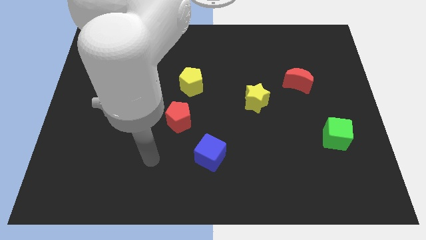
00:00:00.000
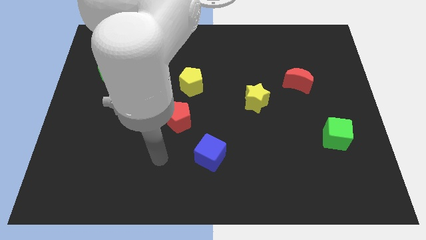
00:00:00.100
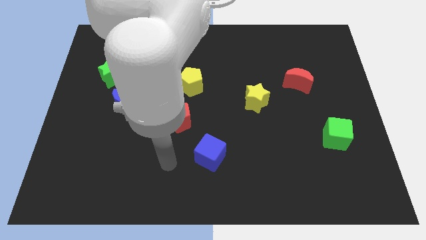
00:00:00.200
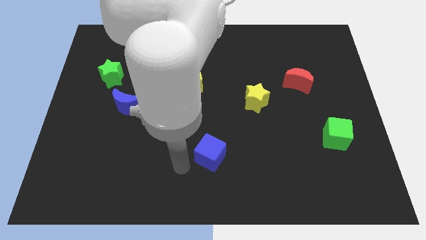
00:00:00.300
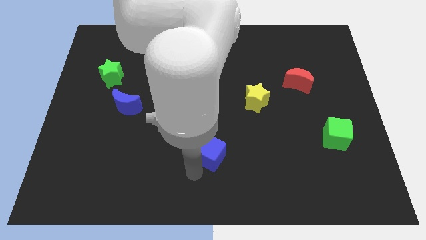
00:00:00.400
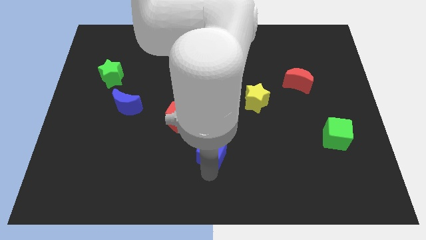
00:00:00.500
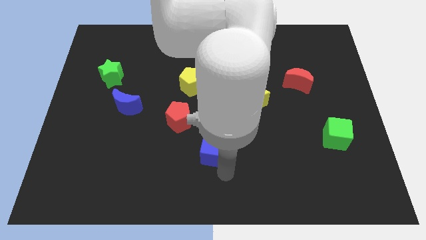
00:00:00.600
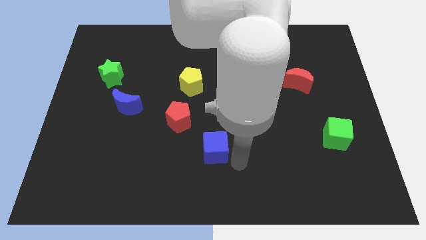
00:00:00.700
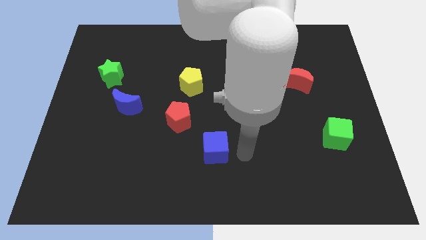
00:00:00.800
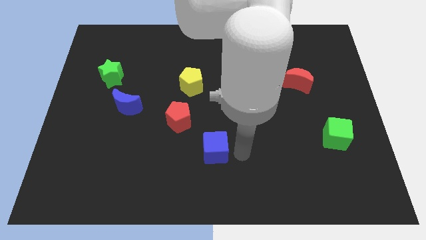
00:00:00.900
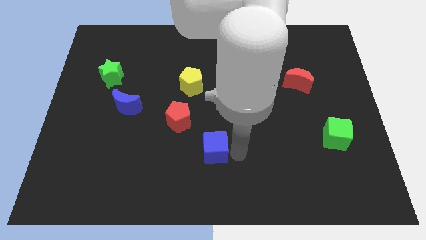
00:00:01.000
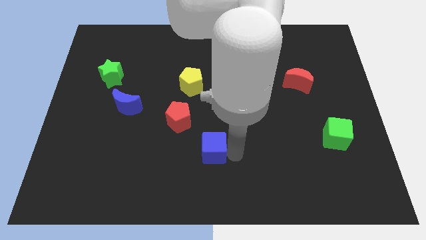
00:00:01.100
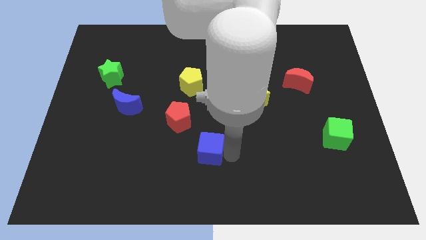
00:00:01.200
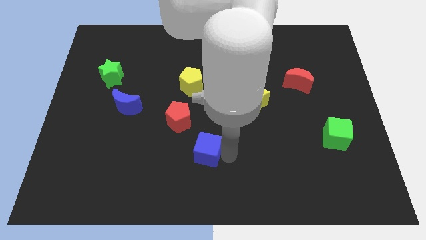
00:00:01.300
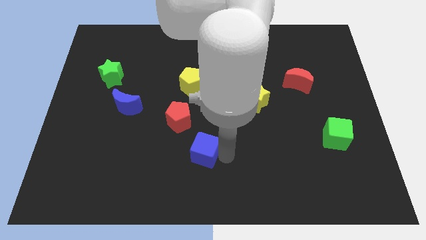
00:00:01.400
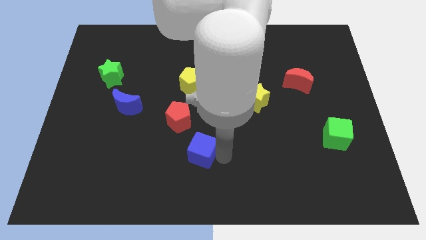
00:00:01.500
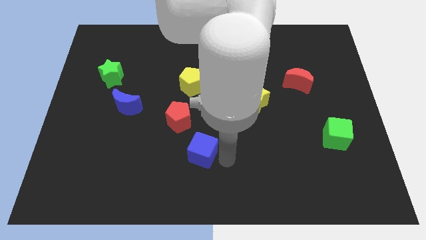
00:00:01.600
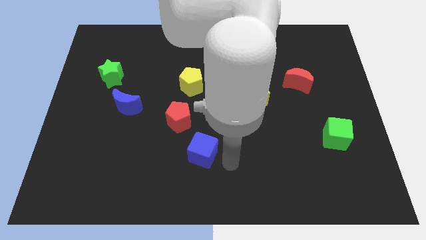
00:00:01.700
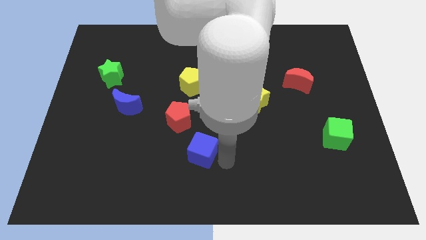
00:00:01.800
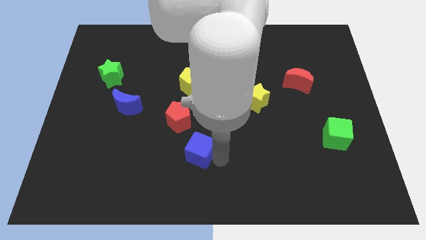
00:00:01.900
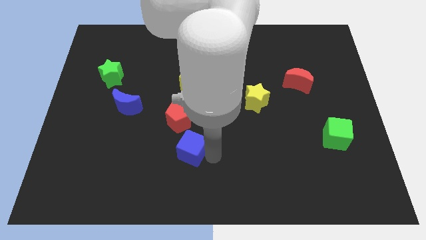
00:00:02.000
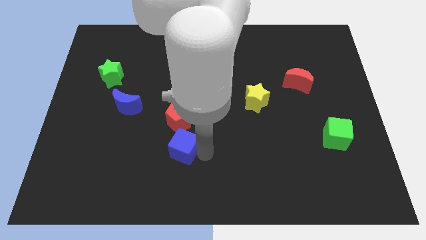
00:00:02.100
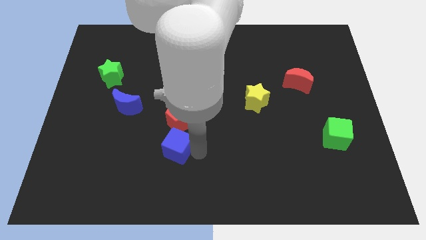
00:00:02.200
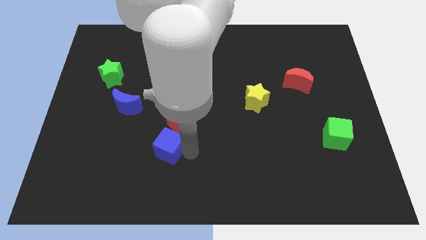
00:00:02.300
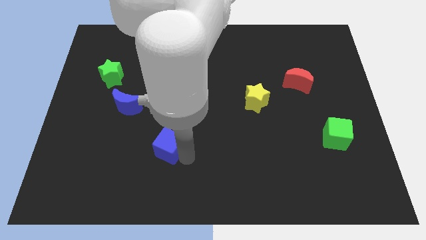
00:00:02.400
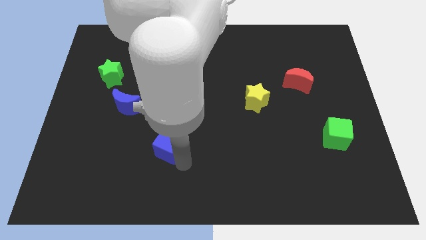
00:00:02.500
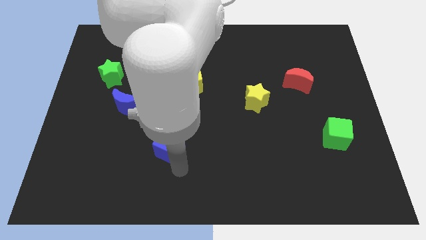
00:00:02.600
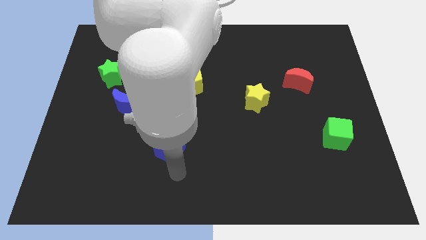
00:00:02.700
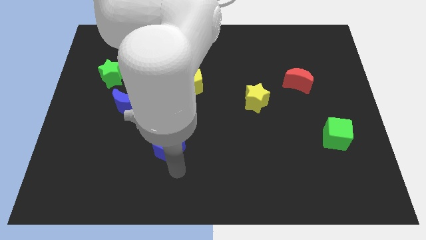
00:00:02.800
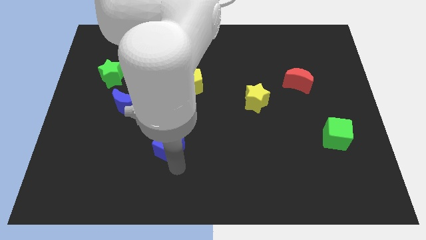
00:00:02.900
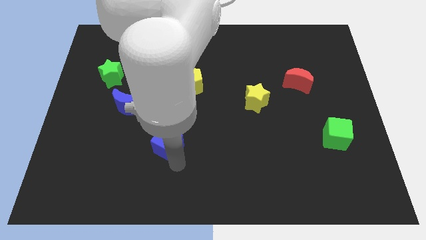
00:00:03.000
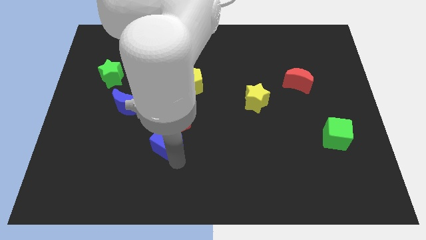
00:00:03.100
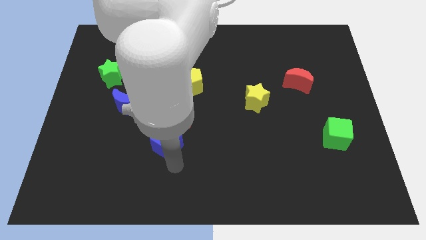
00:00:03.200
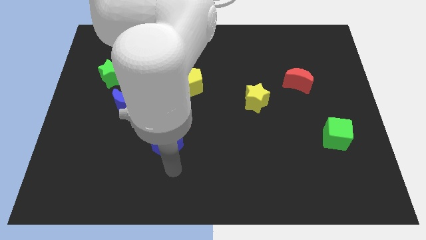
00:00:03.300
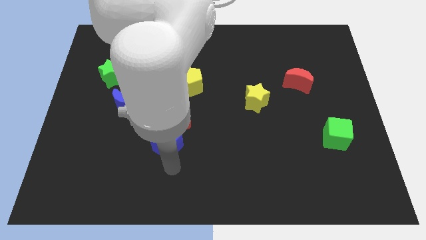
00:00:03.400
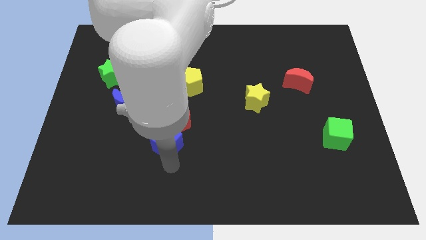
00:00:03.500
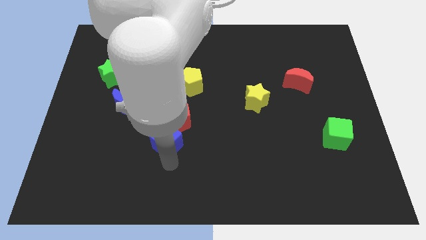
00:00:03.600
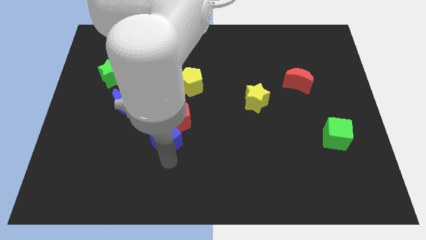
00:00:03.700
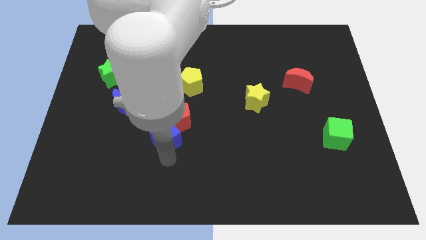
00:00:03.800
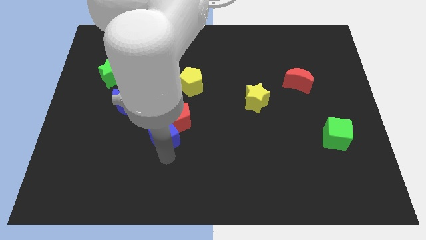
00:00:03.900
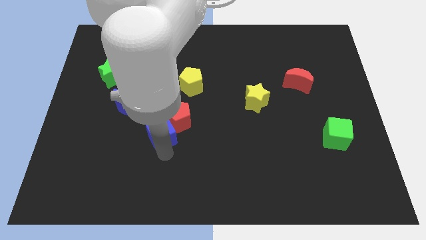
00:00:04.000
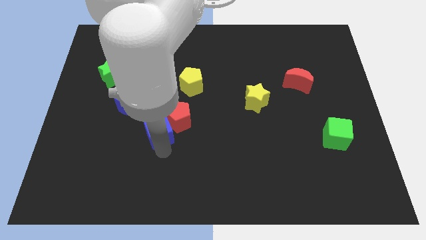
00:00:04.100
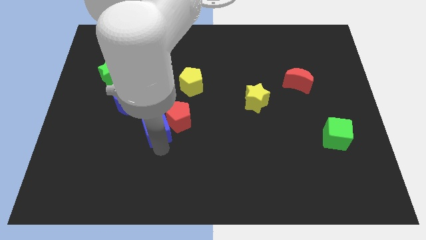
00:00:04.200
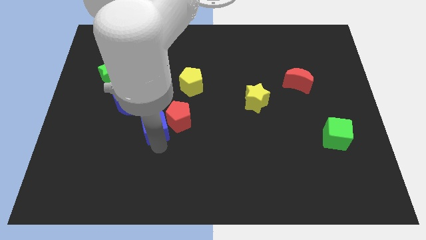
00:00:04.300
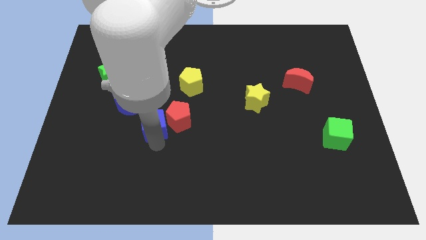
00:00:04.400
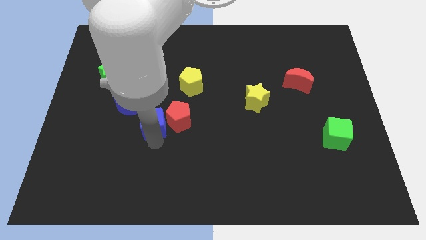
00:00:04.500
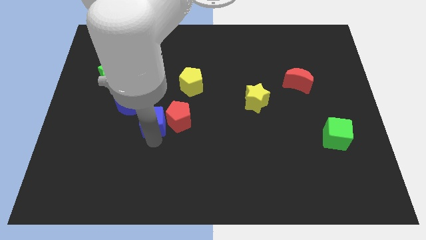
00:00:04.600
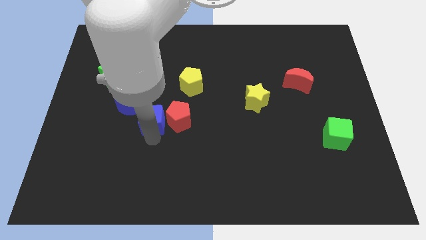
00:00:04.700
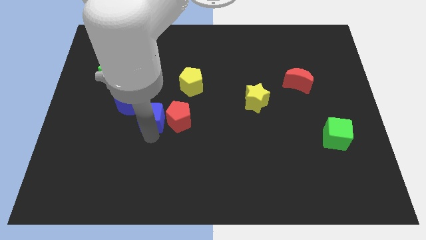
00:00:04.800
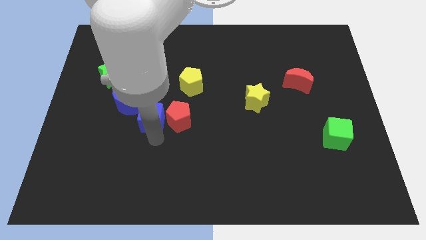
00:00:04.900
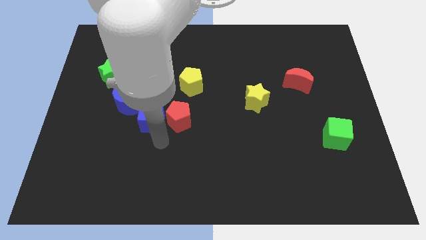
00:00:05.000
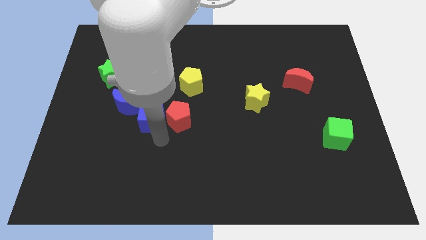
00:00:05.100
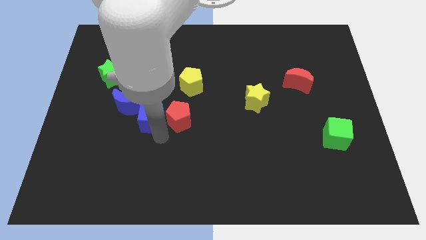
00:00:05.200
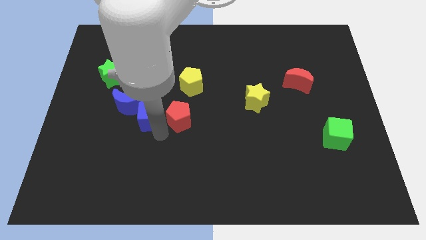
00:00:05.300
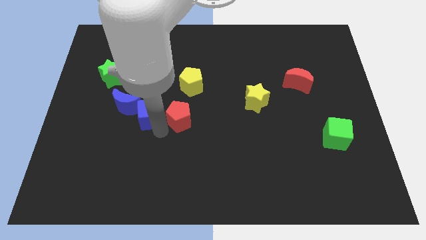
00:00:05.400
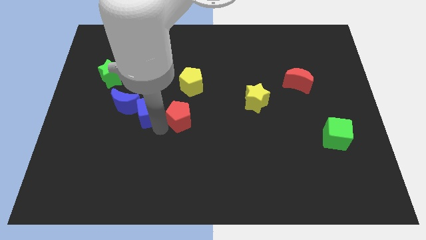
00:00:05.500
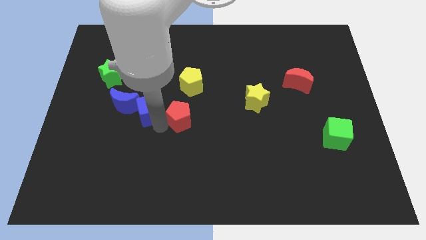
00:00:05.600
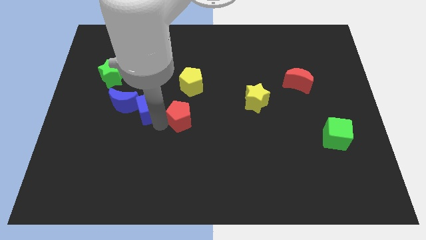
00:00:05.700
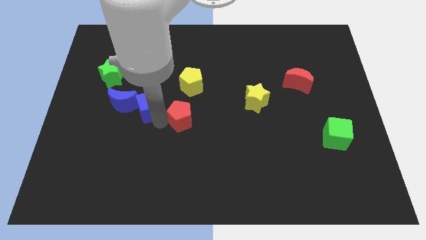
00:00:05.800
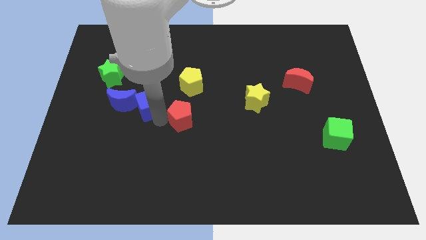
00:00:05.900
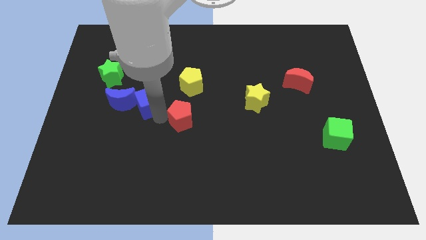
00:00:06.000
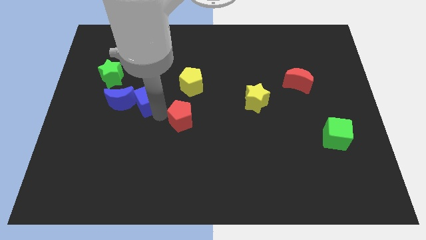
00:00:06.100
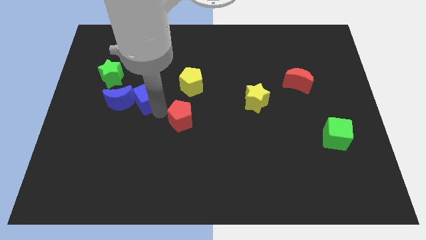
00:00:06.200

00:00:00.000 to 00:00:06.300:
slide the blue cube to the bottom right side of the green star
